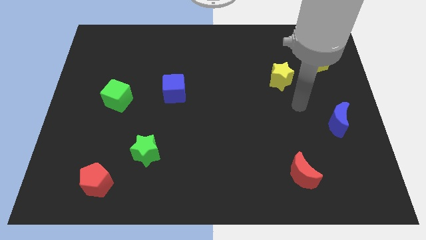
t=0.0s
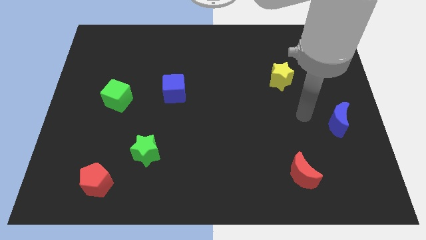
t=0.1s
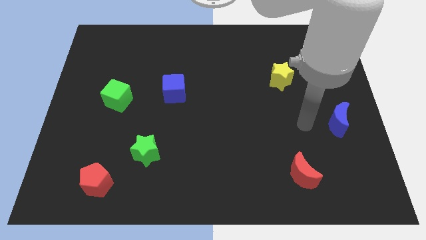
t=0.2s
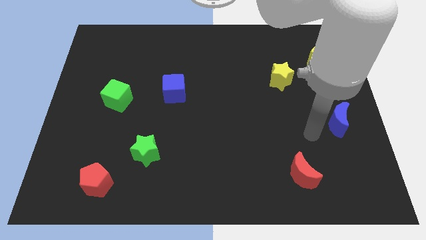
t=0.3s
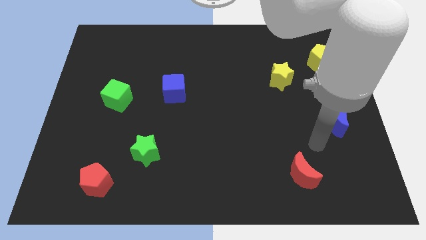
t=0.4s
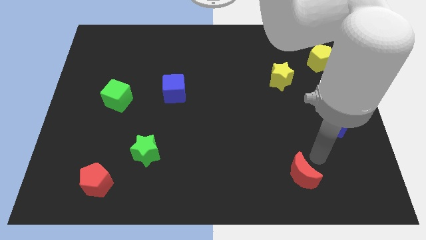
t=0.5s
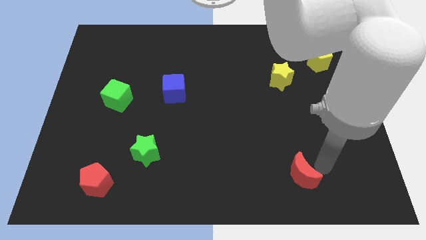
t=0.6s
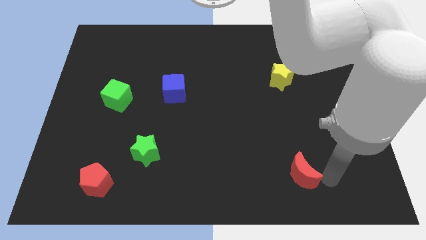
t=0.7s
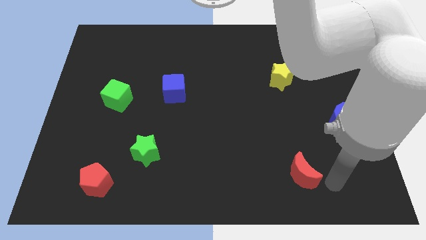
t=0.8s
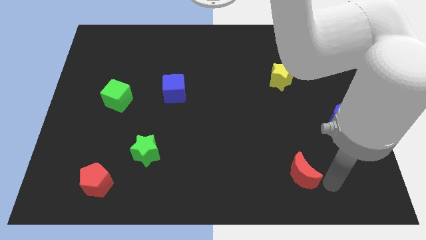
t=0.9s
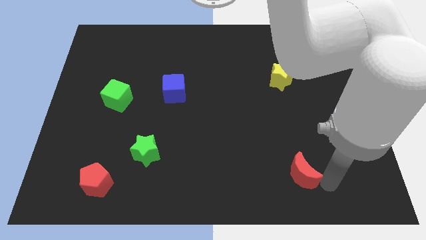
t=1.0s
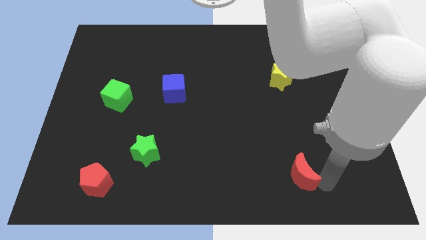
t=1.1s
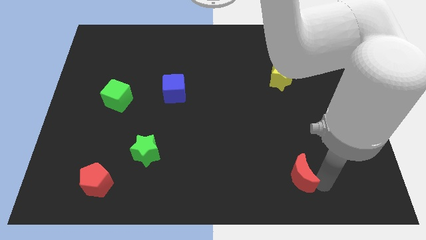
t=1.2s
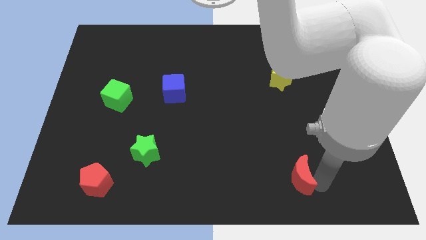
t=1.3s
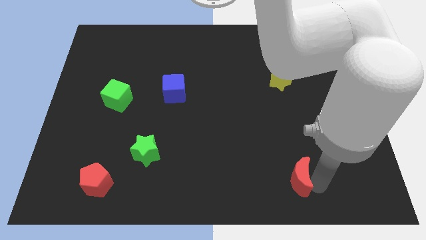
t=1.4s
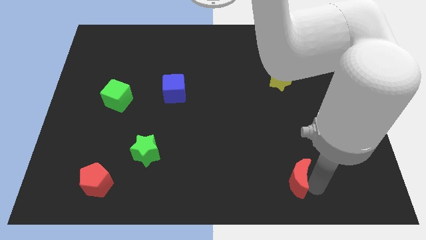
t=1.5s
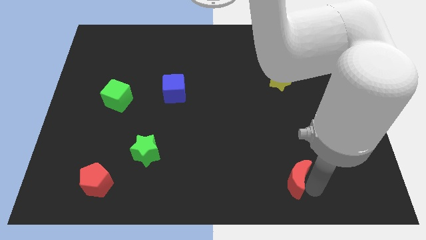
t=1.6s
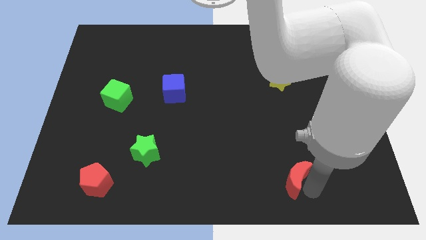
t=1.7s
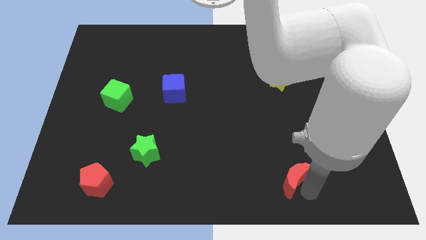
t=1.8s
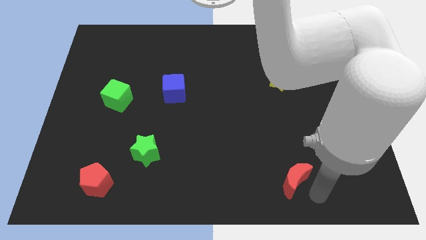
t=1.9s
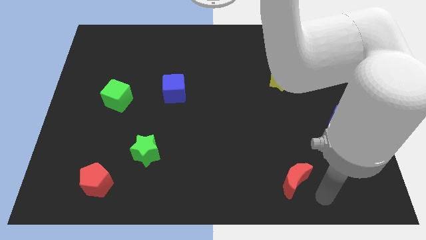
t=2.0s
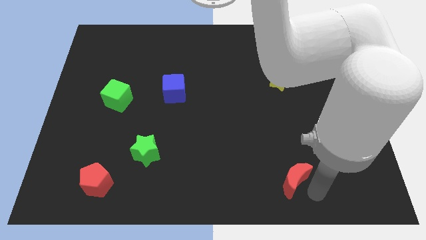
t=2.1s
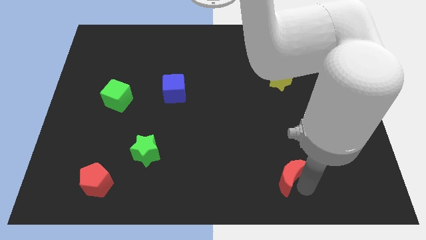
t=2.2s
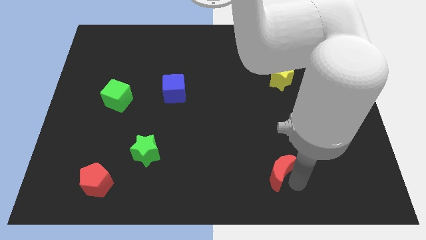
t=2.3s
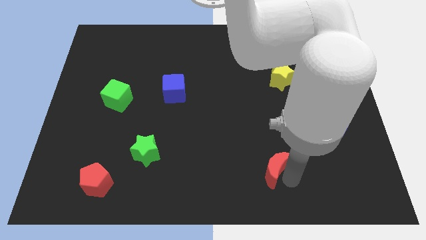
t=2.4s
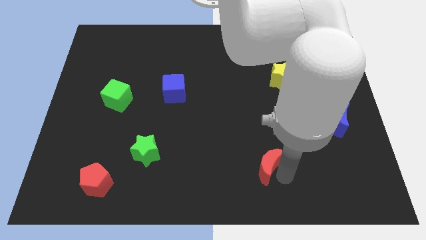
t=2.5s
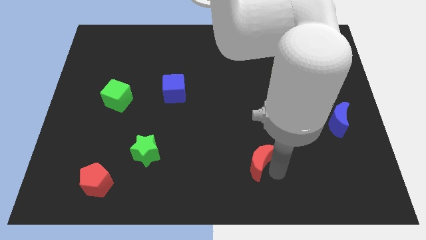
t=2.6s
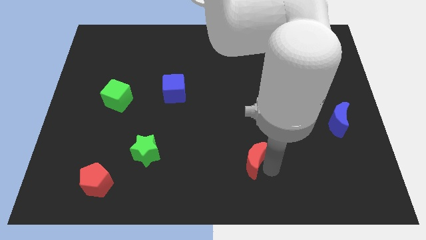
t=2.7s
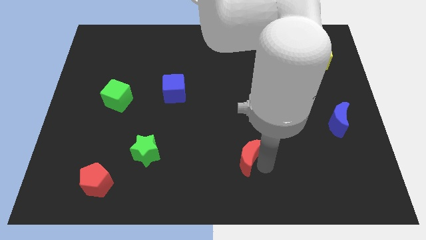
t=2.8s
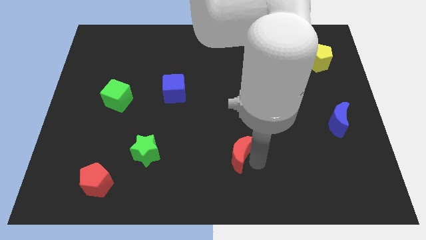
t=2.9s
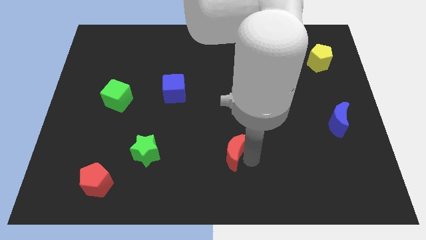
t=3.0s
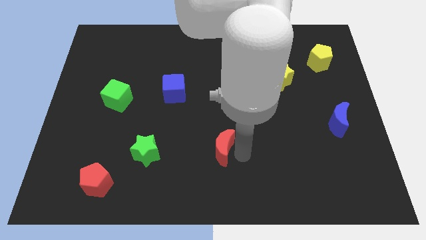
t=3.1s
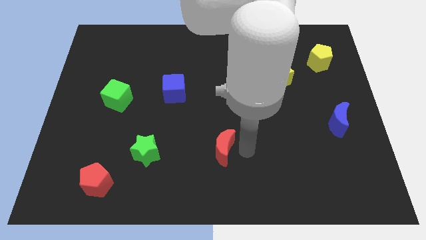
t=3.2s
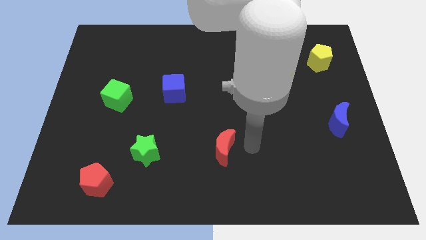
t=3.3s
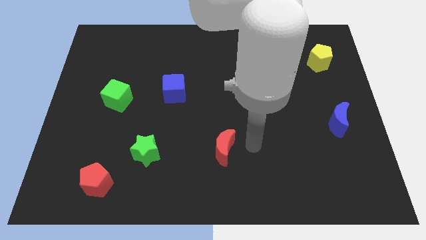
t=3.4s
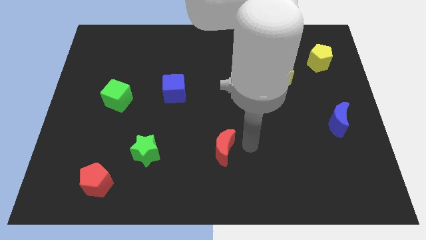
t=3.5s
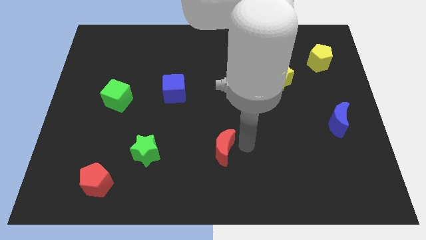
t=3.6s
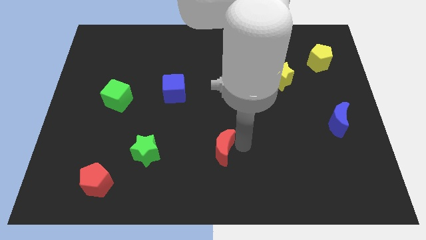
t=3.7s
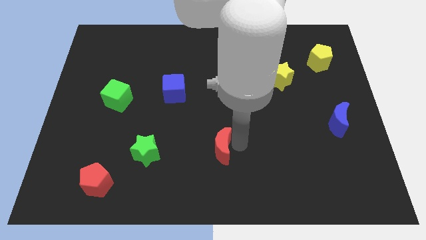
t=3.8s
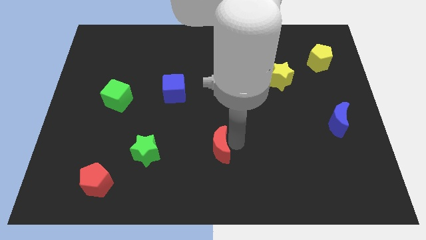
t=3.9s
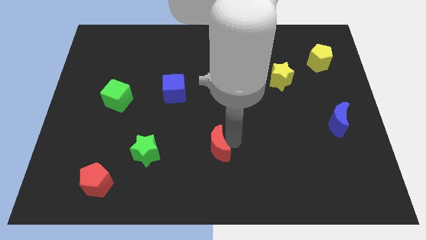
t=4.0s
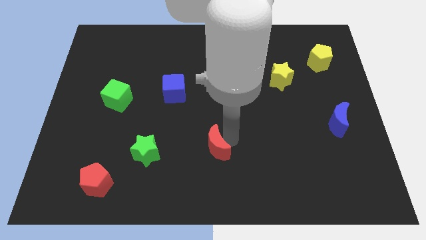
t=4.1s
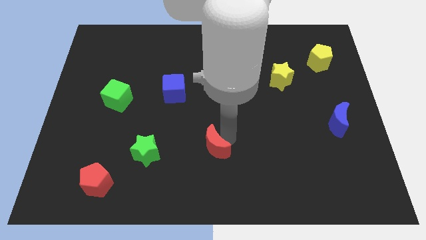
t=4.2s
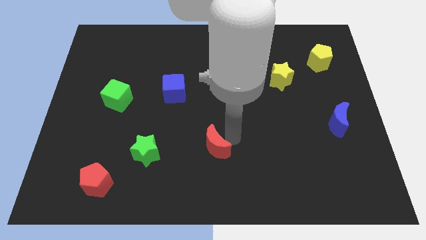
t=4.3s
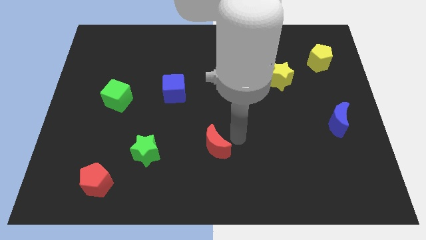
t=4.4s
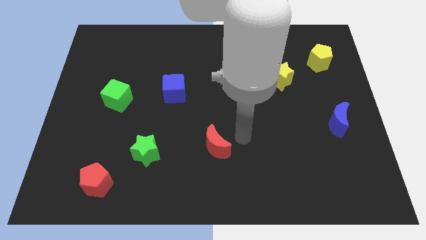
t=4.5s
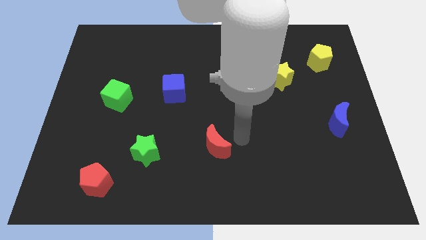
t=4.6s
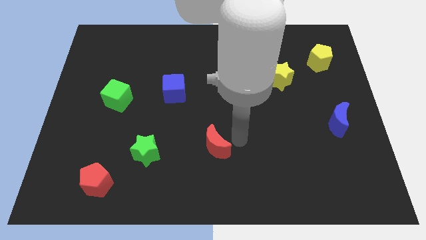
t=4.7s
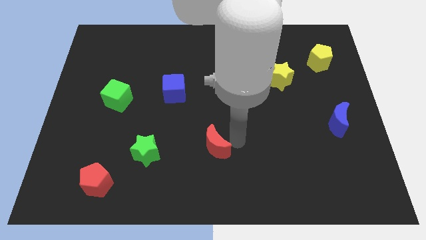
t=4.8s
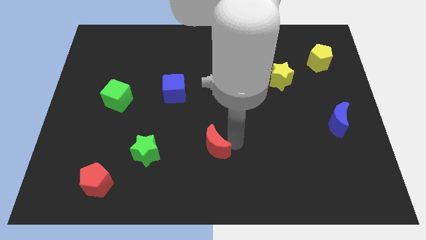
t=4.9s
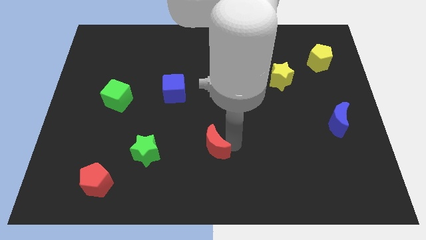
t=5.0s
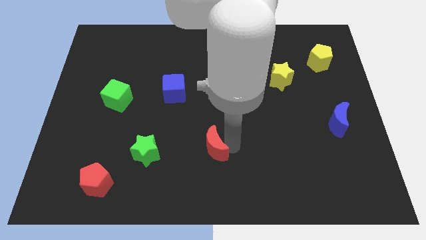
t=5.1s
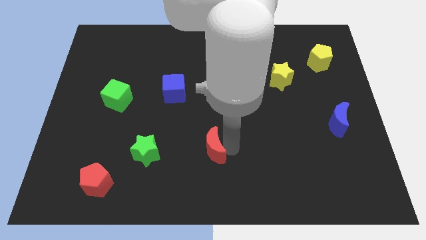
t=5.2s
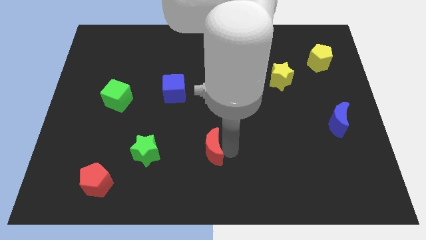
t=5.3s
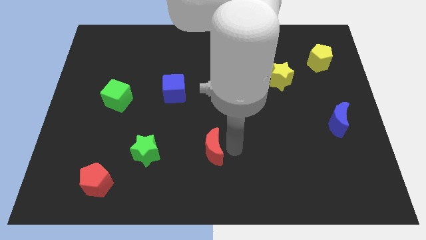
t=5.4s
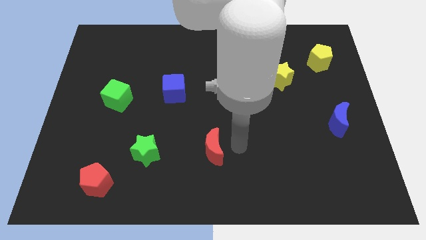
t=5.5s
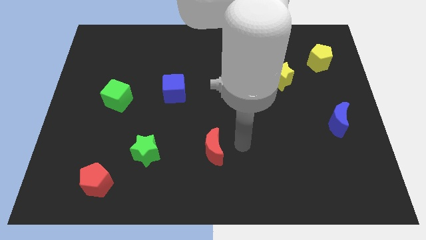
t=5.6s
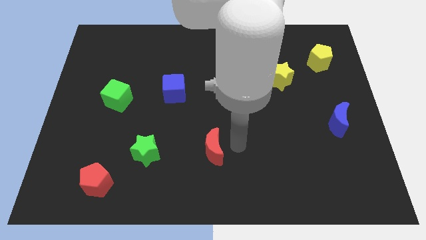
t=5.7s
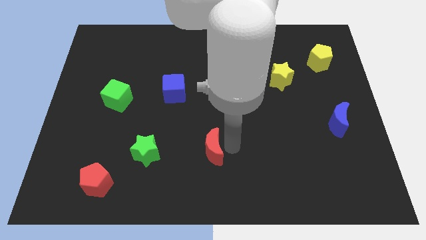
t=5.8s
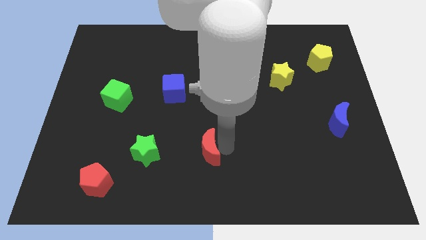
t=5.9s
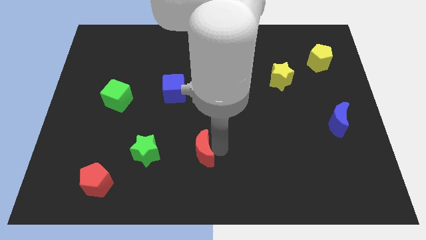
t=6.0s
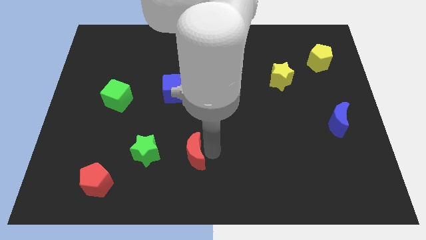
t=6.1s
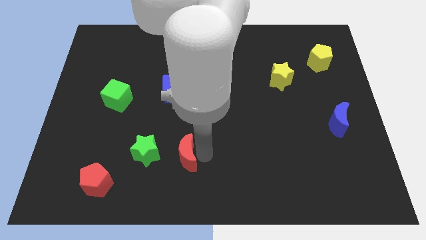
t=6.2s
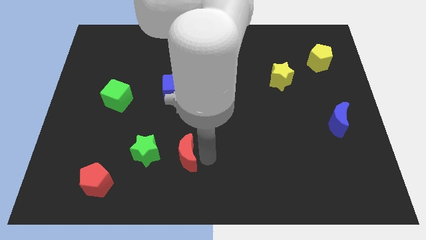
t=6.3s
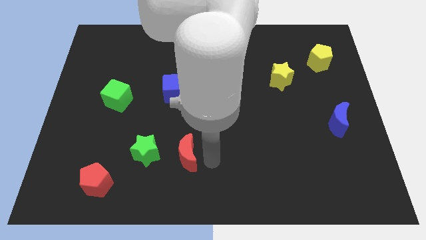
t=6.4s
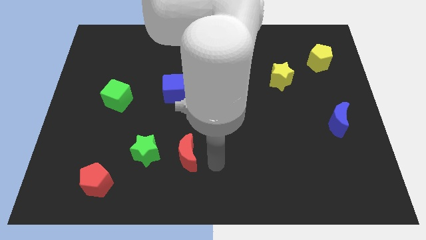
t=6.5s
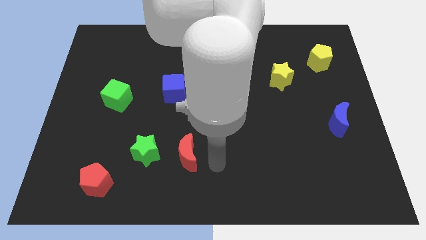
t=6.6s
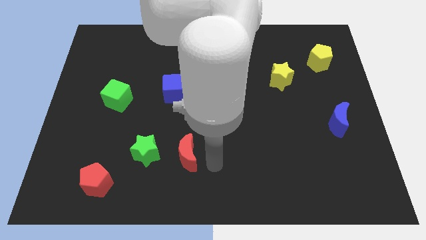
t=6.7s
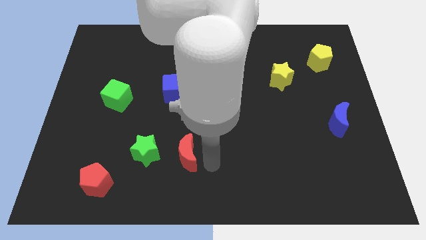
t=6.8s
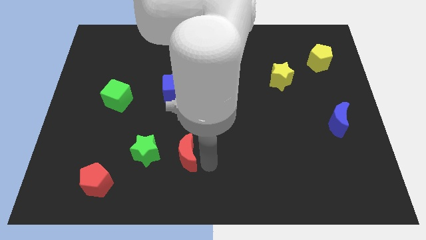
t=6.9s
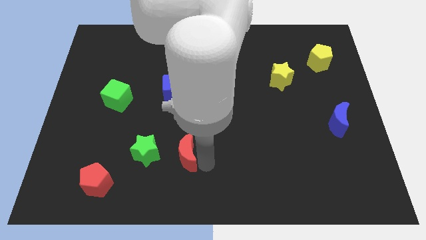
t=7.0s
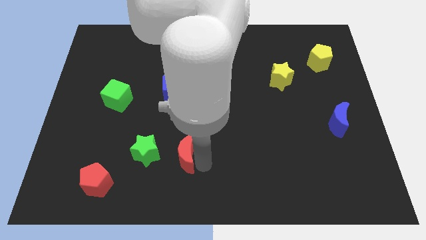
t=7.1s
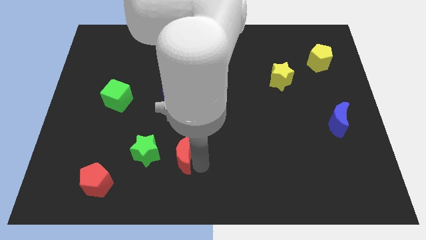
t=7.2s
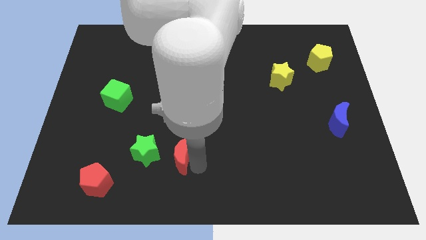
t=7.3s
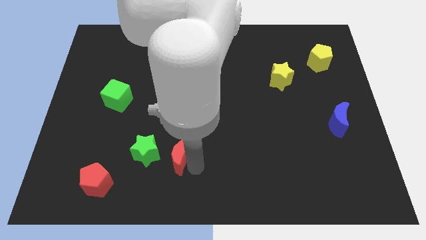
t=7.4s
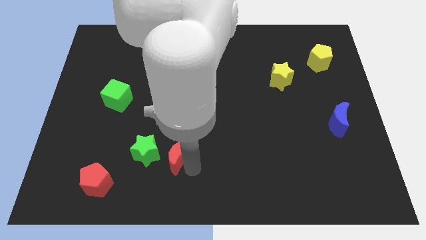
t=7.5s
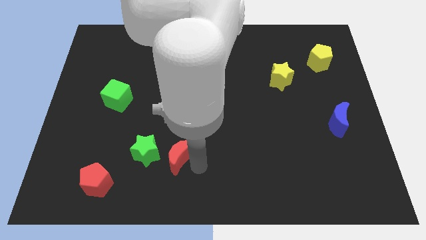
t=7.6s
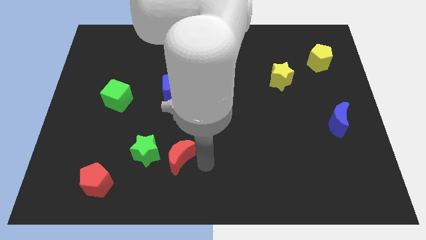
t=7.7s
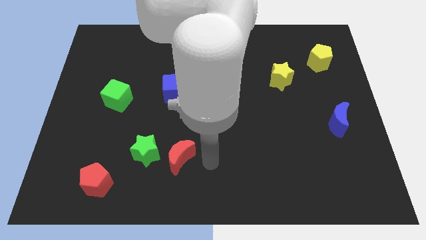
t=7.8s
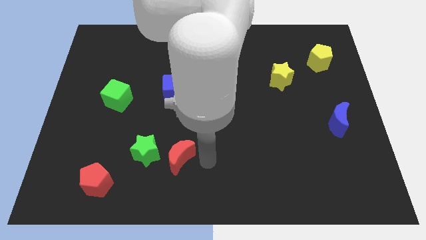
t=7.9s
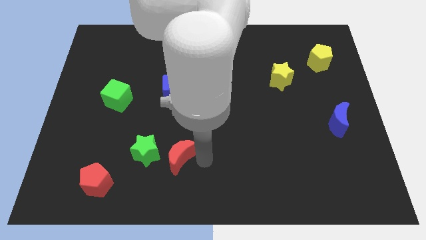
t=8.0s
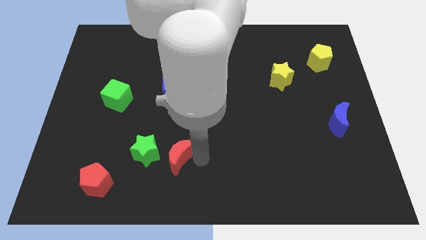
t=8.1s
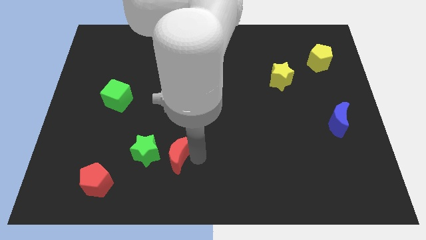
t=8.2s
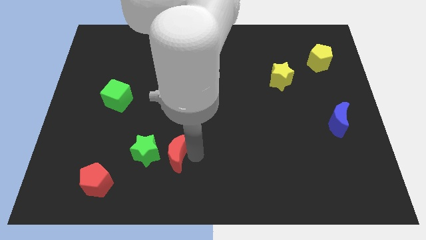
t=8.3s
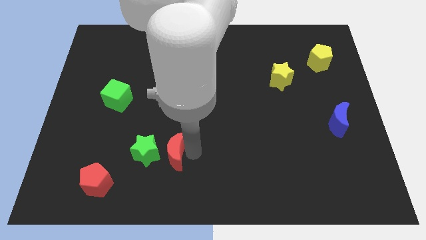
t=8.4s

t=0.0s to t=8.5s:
put the red moon next to the green star

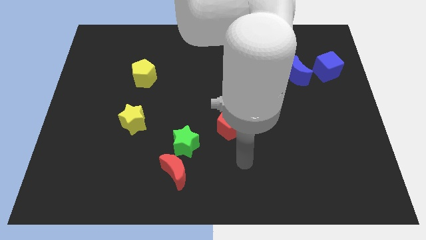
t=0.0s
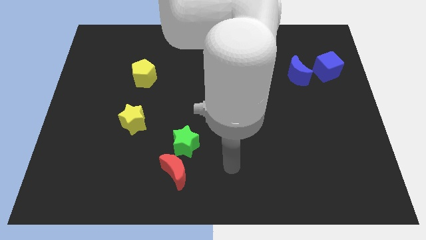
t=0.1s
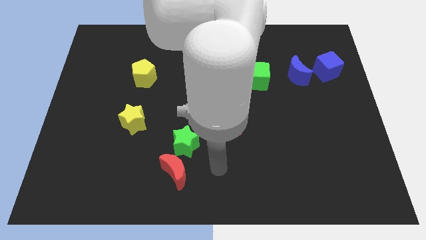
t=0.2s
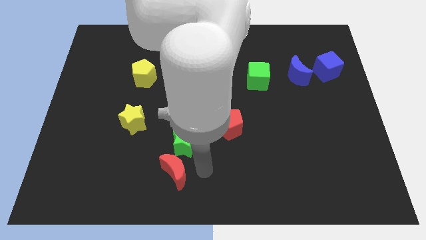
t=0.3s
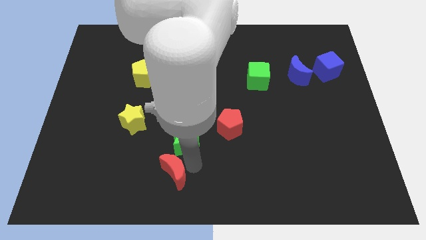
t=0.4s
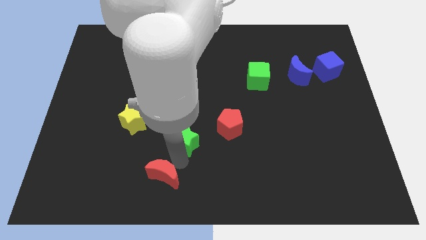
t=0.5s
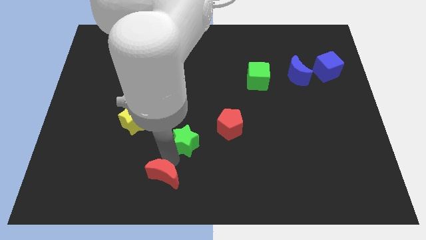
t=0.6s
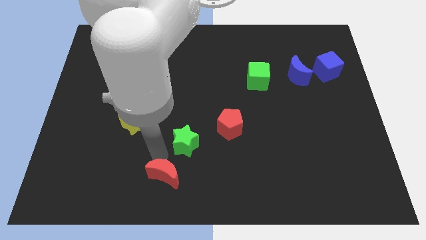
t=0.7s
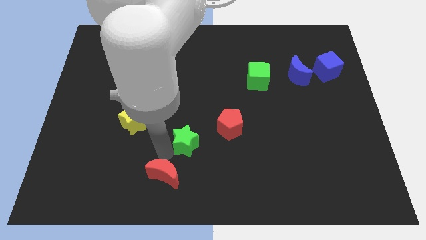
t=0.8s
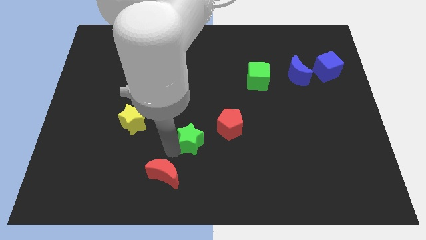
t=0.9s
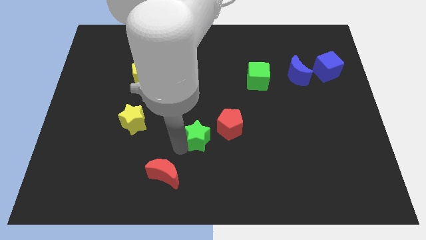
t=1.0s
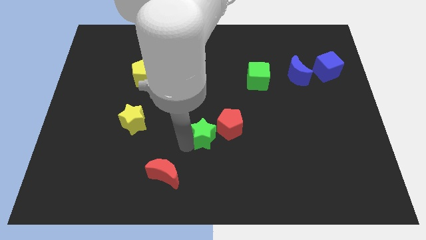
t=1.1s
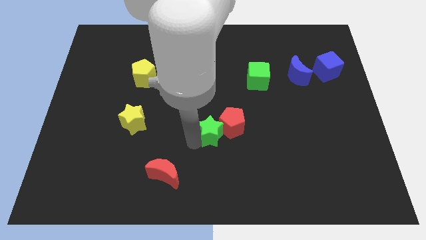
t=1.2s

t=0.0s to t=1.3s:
slide the green star next to the red pentagon
